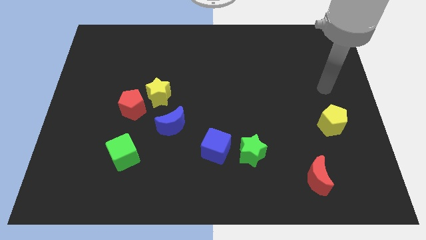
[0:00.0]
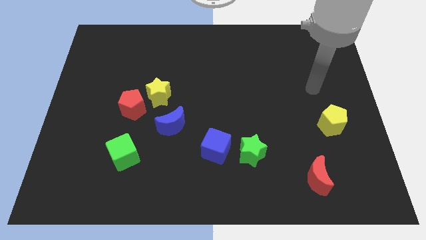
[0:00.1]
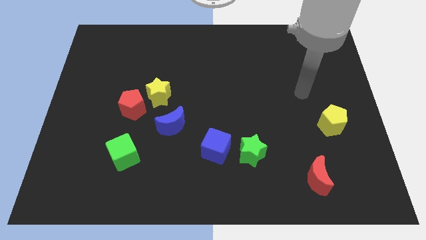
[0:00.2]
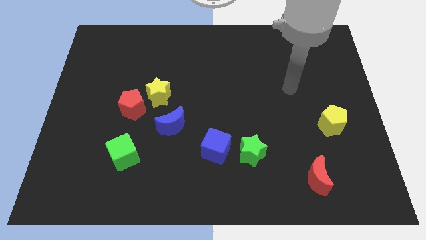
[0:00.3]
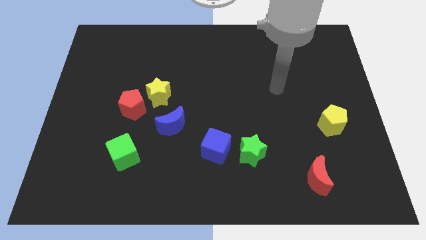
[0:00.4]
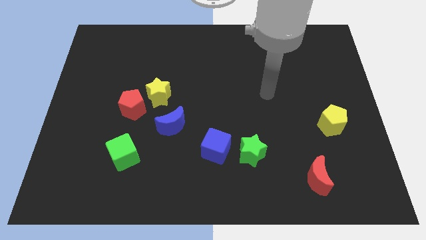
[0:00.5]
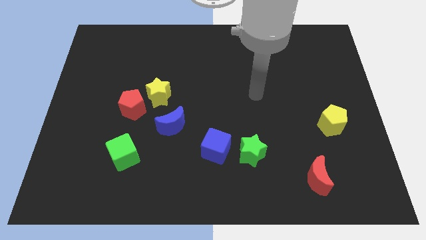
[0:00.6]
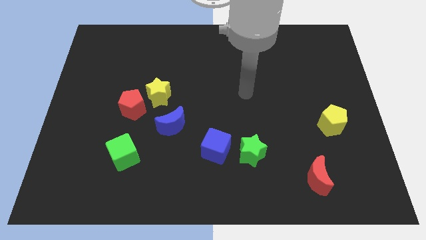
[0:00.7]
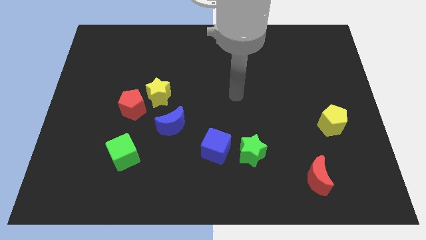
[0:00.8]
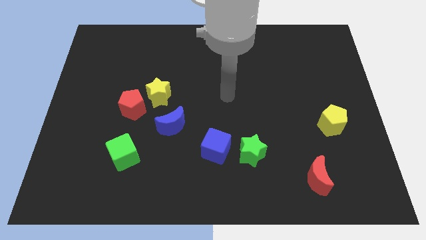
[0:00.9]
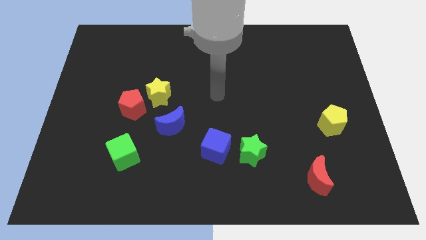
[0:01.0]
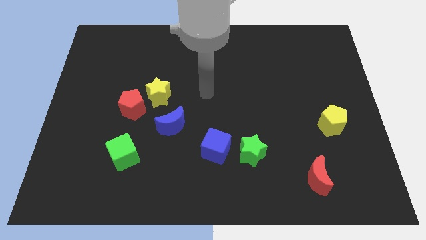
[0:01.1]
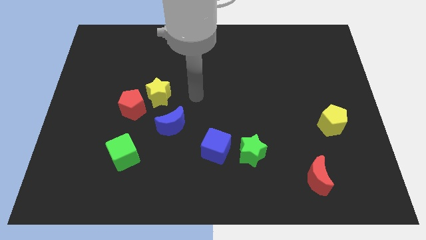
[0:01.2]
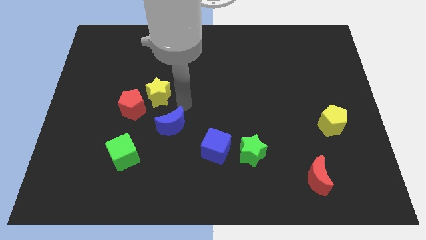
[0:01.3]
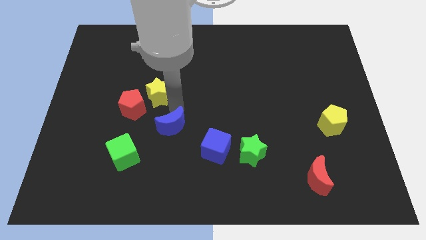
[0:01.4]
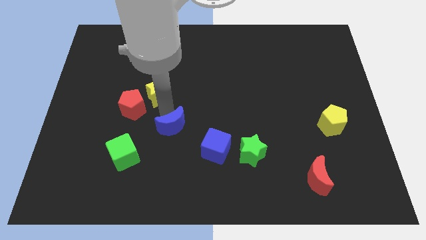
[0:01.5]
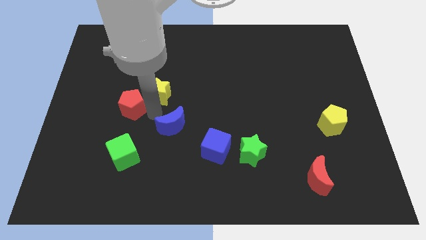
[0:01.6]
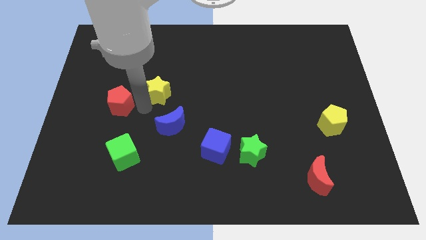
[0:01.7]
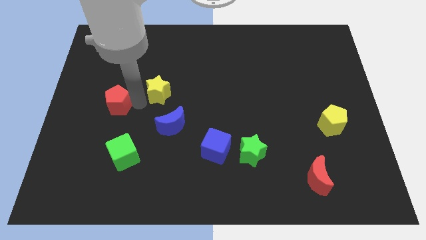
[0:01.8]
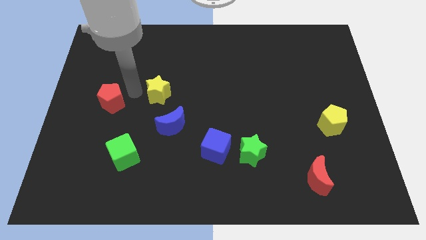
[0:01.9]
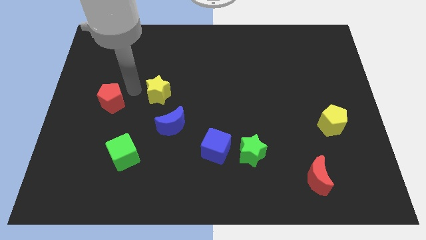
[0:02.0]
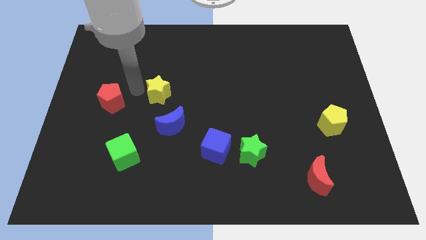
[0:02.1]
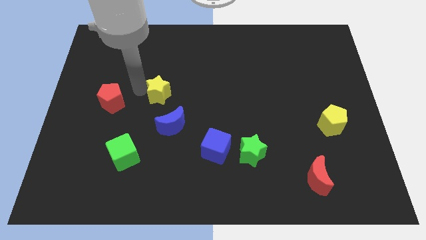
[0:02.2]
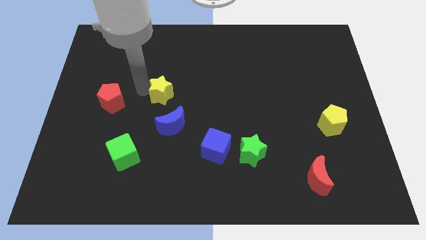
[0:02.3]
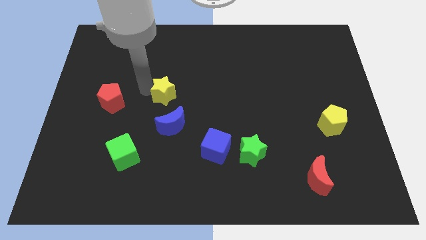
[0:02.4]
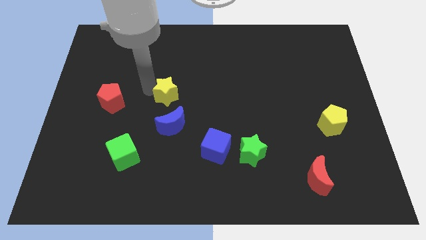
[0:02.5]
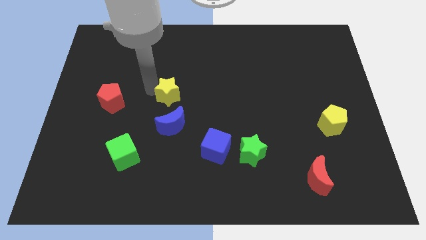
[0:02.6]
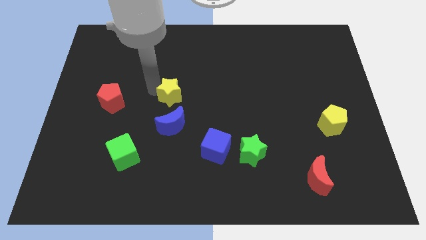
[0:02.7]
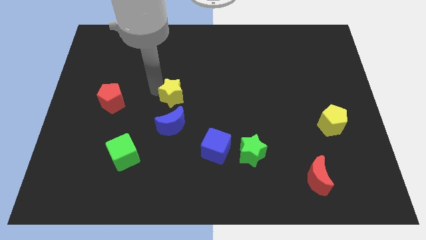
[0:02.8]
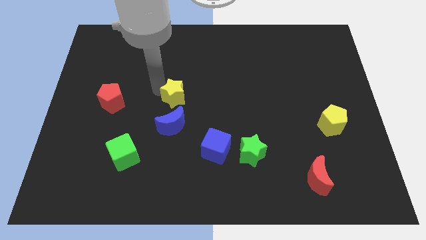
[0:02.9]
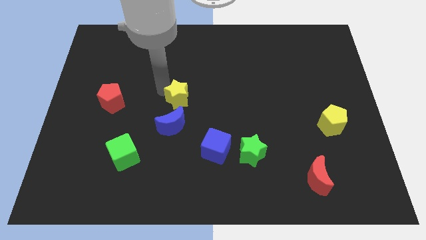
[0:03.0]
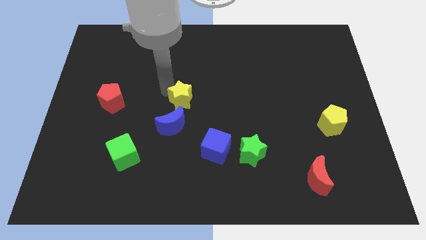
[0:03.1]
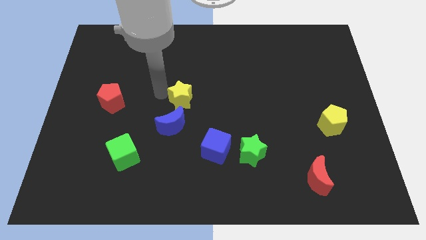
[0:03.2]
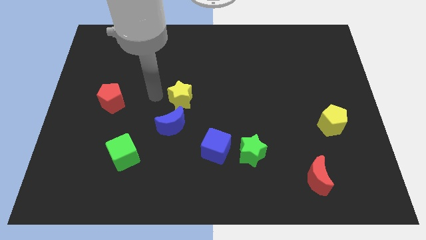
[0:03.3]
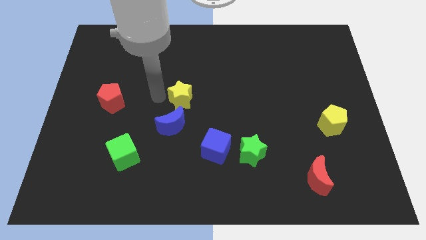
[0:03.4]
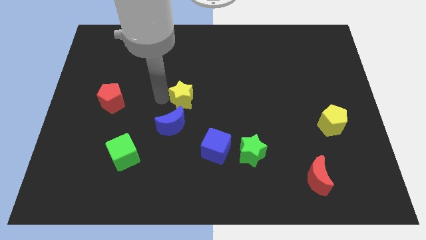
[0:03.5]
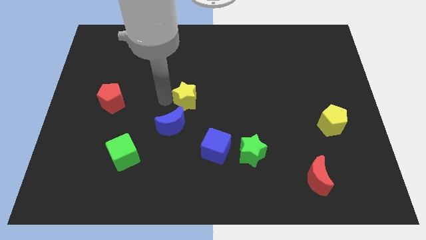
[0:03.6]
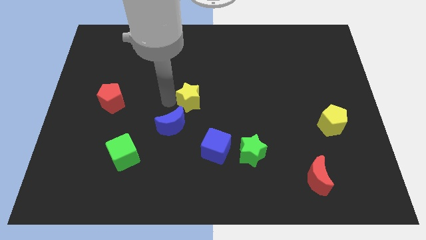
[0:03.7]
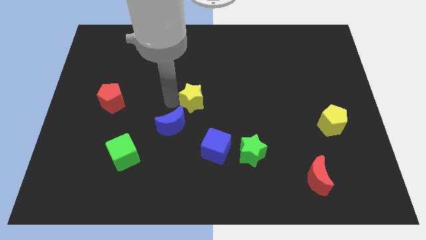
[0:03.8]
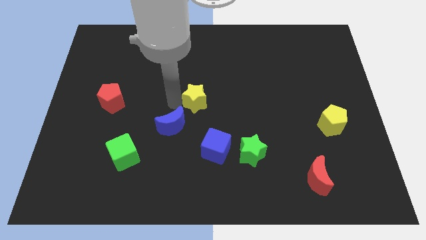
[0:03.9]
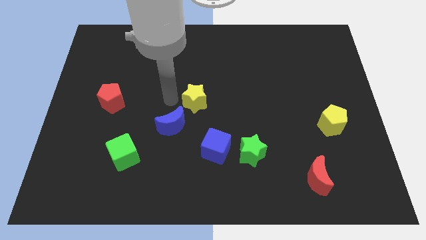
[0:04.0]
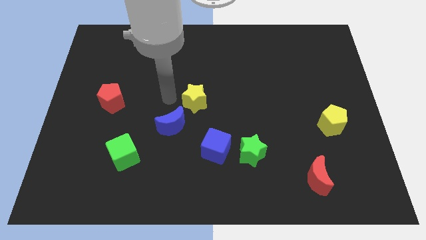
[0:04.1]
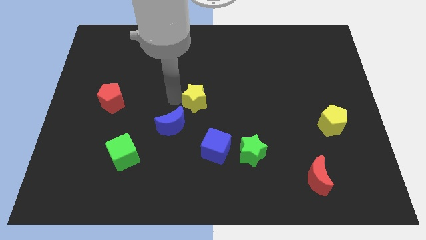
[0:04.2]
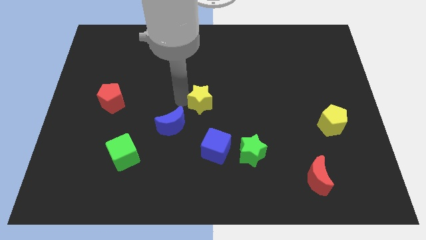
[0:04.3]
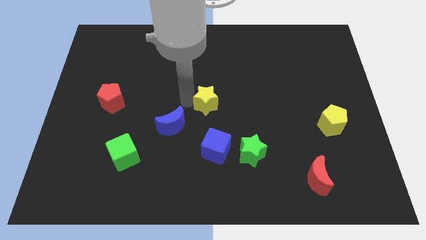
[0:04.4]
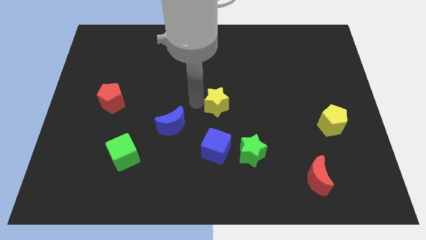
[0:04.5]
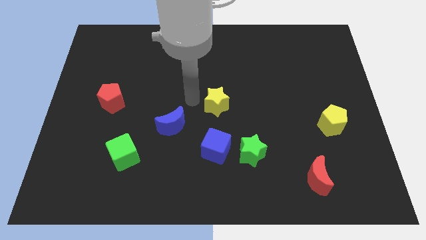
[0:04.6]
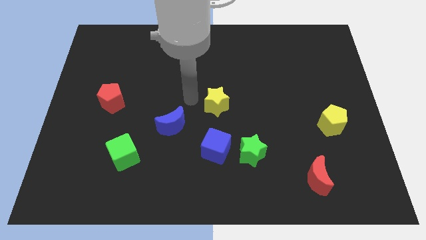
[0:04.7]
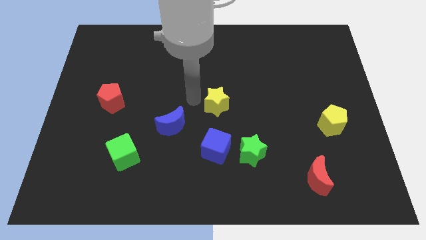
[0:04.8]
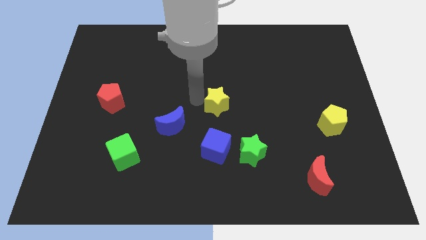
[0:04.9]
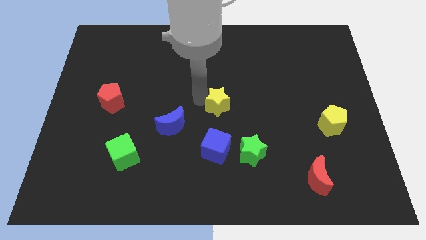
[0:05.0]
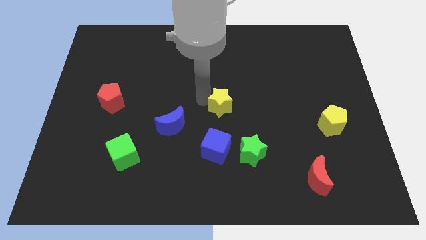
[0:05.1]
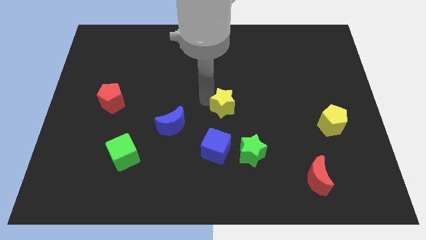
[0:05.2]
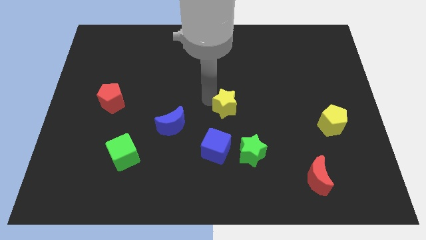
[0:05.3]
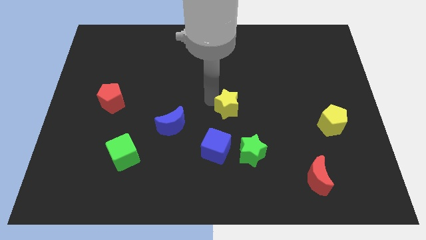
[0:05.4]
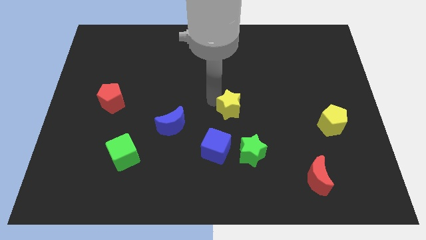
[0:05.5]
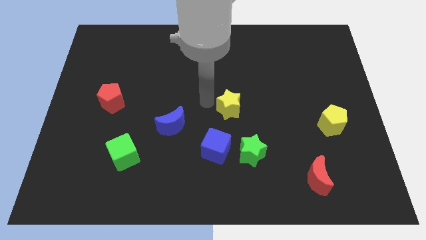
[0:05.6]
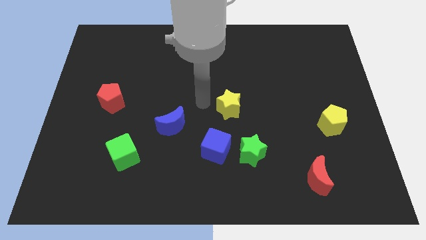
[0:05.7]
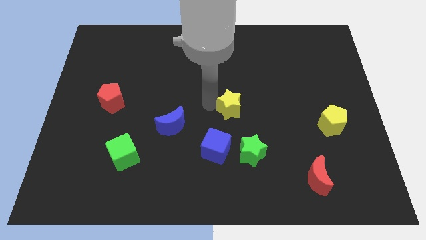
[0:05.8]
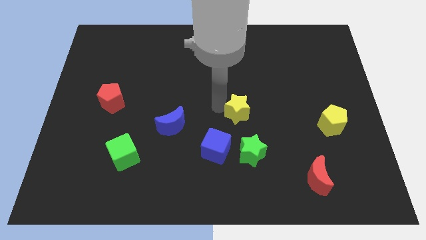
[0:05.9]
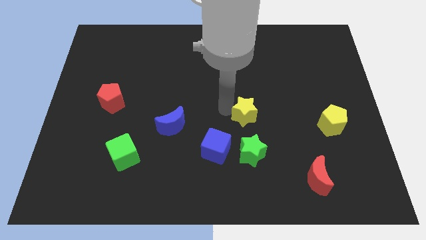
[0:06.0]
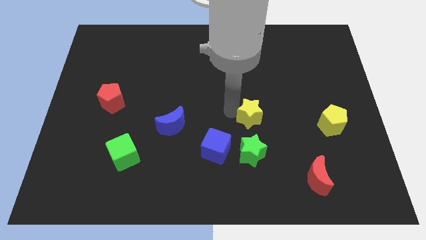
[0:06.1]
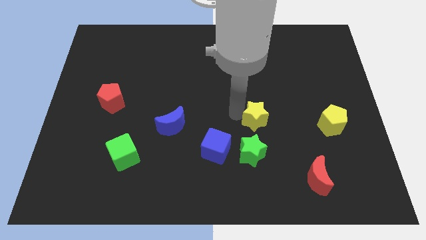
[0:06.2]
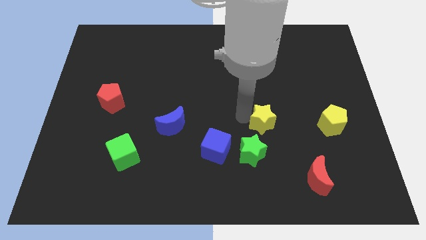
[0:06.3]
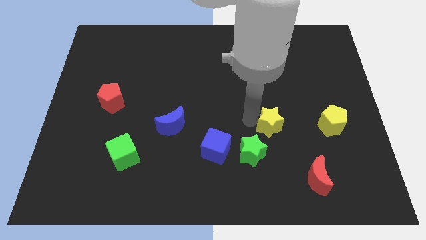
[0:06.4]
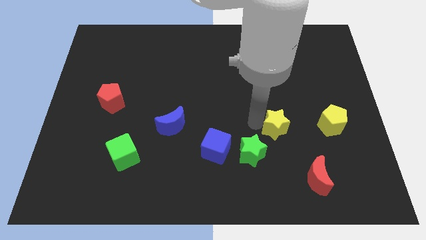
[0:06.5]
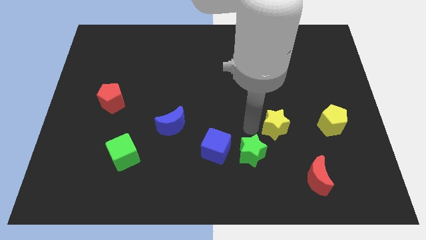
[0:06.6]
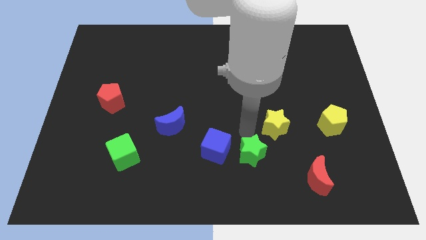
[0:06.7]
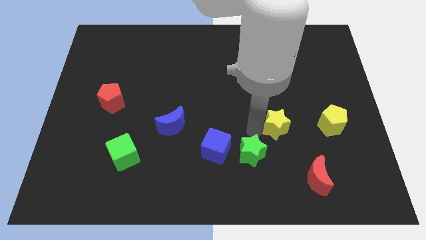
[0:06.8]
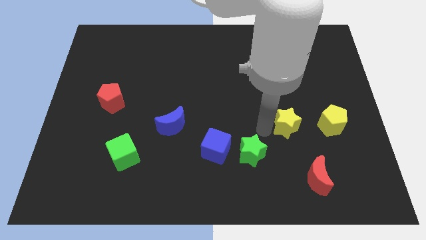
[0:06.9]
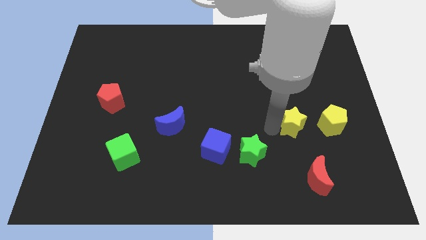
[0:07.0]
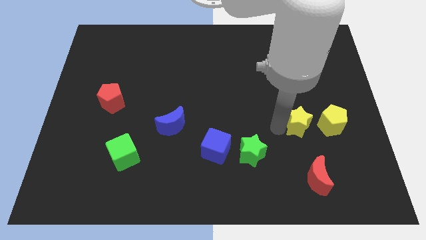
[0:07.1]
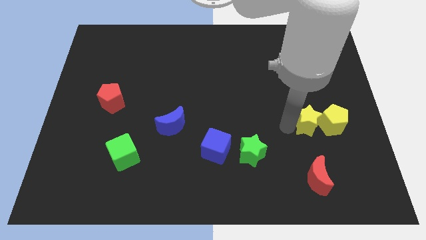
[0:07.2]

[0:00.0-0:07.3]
slide the yellow star to the yellow pentagon

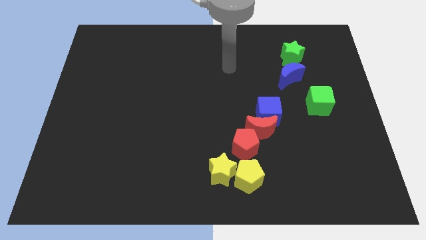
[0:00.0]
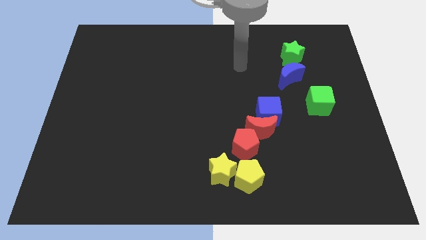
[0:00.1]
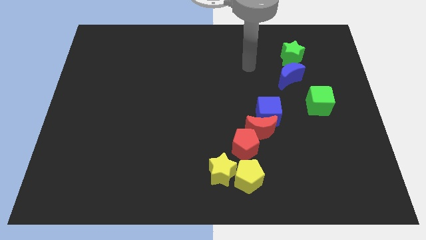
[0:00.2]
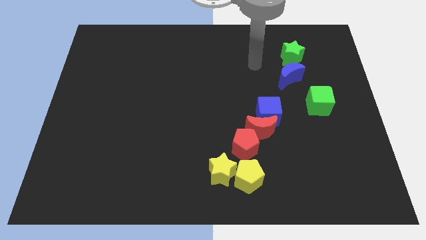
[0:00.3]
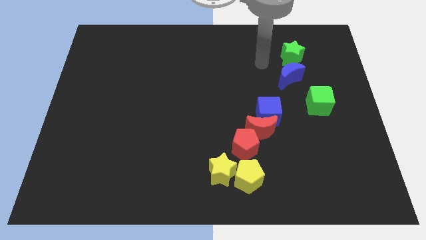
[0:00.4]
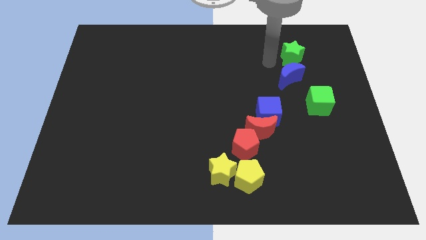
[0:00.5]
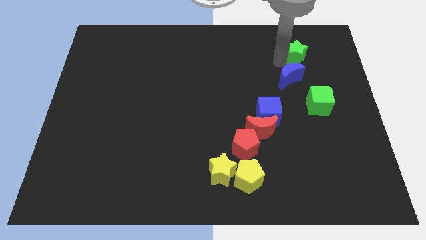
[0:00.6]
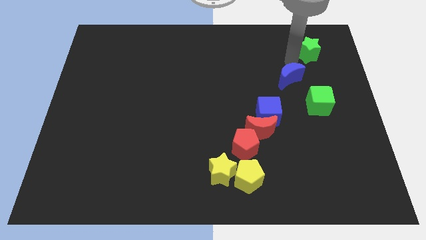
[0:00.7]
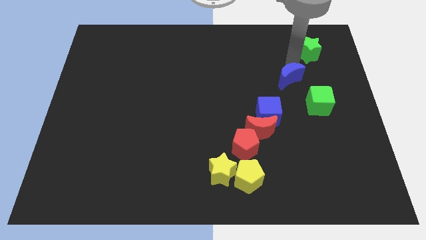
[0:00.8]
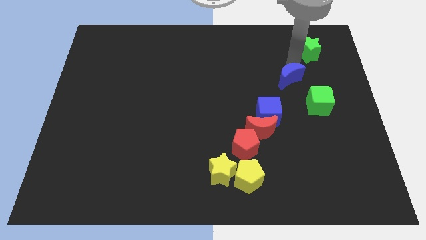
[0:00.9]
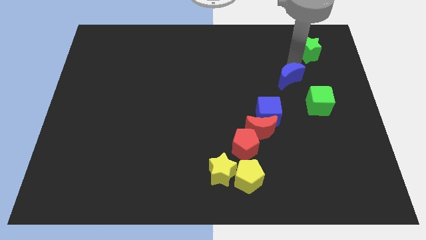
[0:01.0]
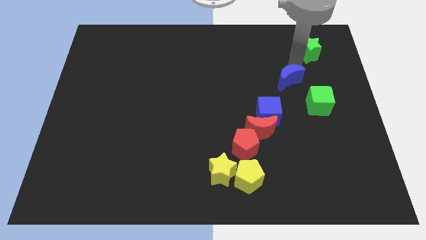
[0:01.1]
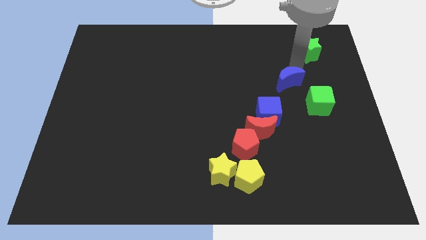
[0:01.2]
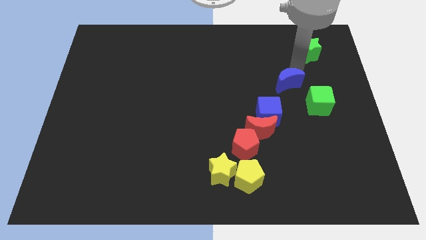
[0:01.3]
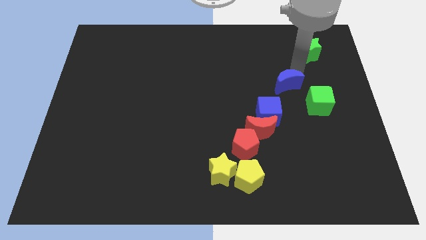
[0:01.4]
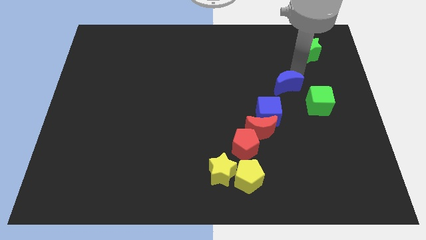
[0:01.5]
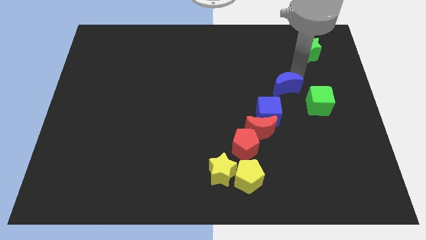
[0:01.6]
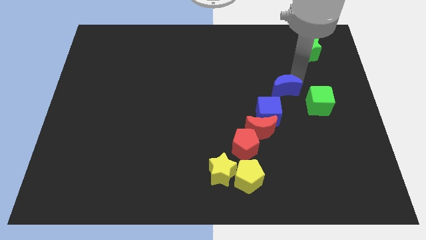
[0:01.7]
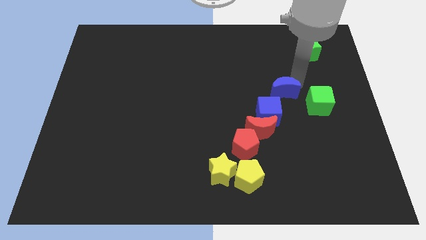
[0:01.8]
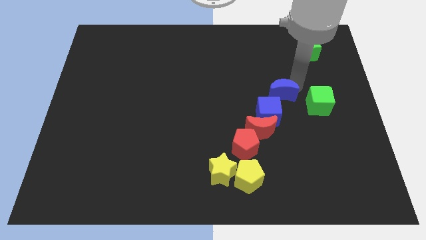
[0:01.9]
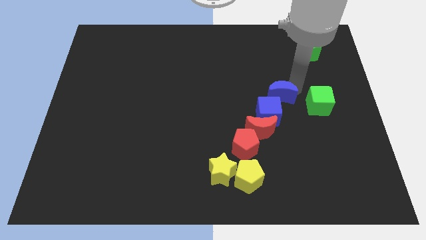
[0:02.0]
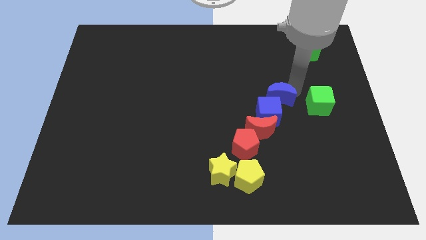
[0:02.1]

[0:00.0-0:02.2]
move the blue moon towards the blue cube
